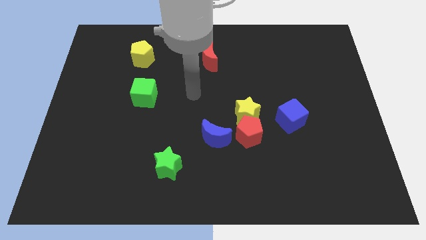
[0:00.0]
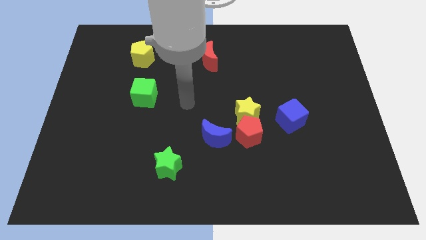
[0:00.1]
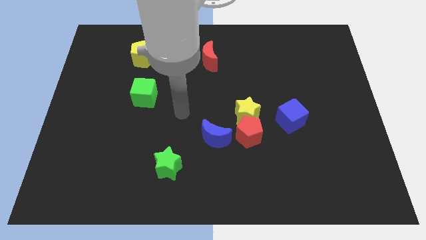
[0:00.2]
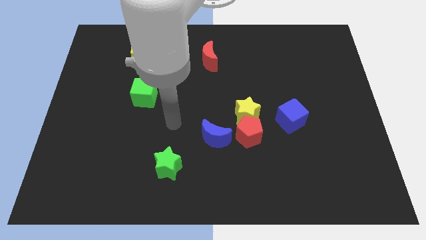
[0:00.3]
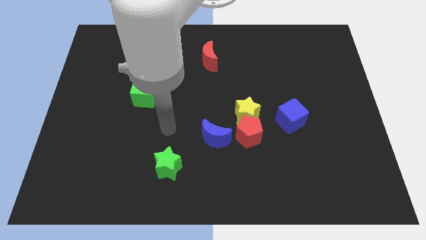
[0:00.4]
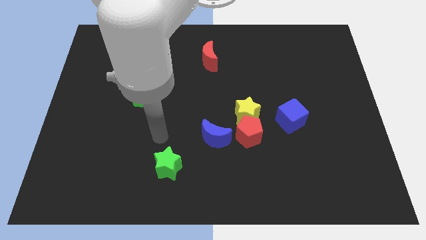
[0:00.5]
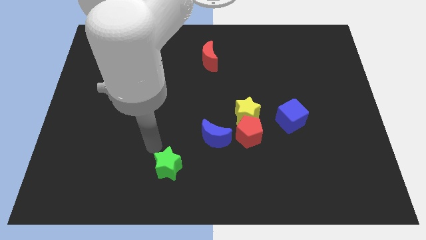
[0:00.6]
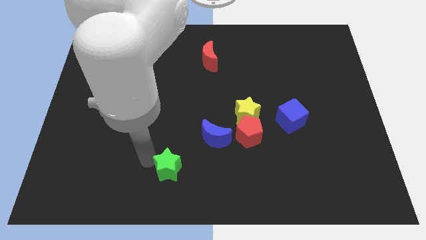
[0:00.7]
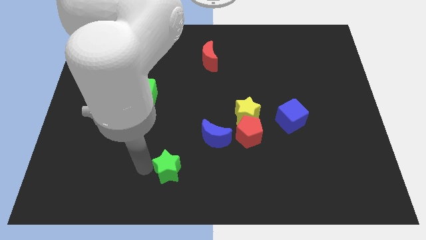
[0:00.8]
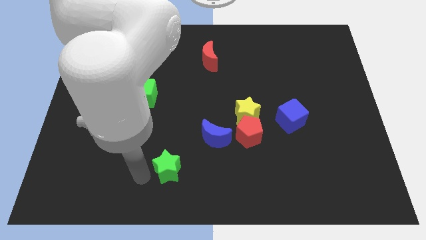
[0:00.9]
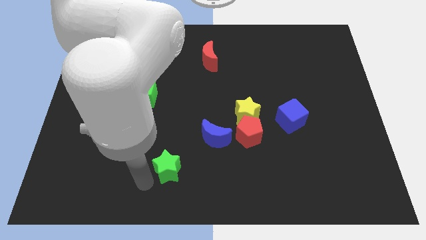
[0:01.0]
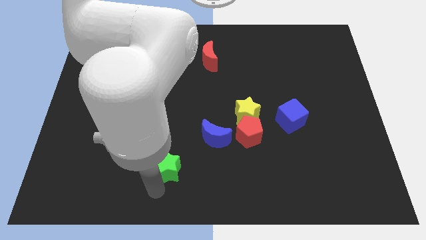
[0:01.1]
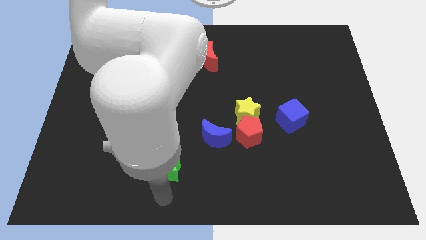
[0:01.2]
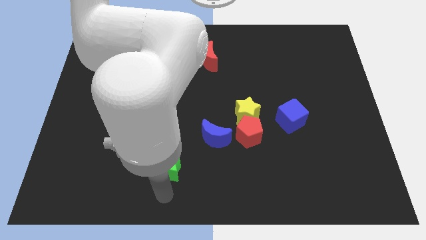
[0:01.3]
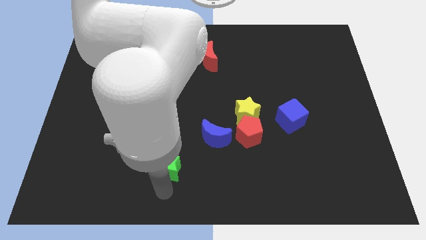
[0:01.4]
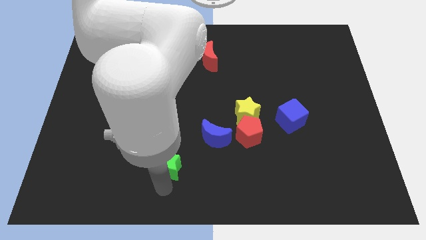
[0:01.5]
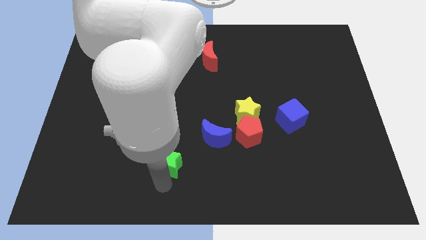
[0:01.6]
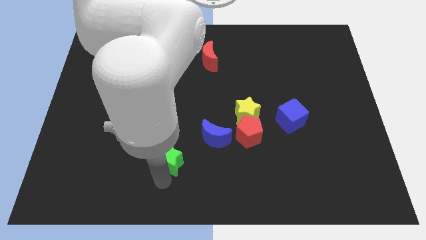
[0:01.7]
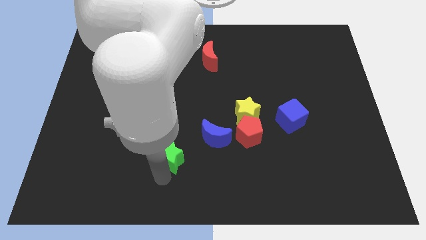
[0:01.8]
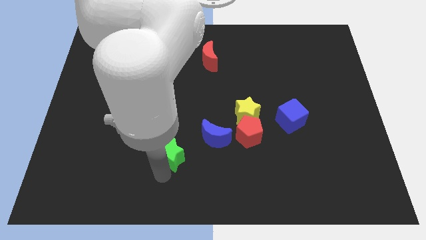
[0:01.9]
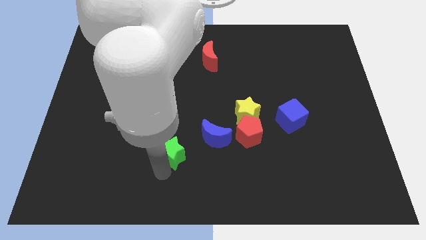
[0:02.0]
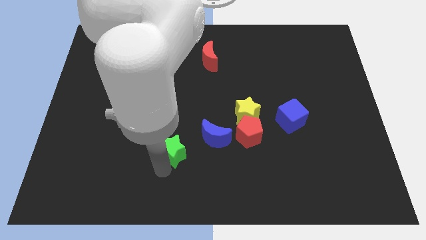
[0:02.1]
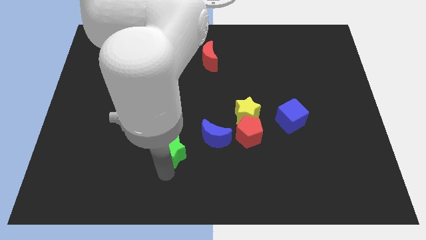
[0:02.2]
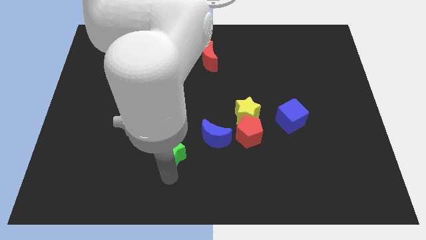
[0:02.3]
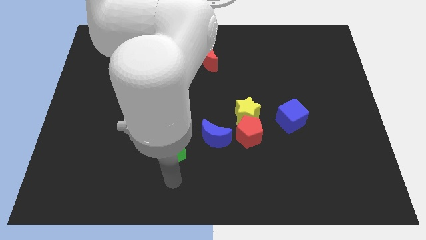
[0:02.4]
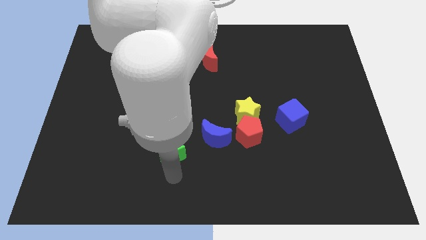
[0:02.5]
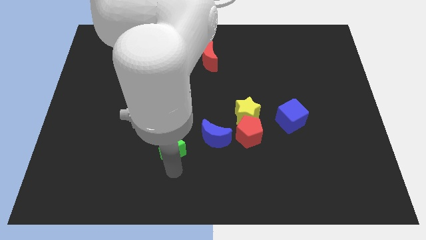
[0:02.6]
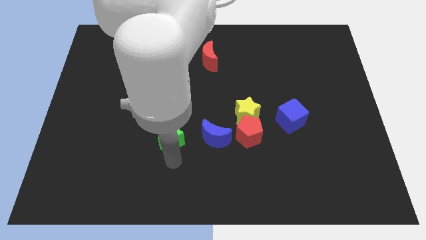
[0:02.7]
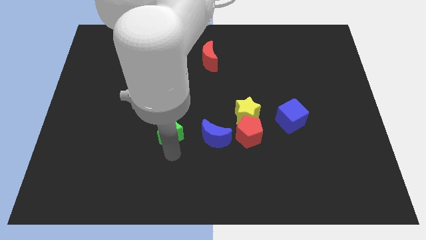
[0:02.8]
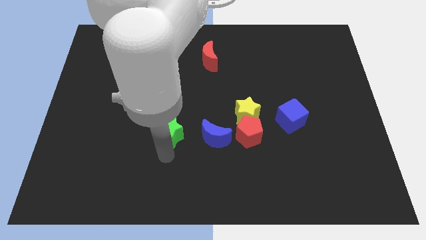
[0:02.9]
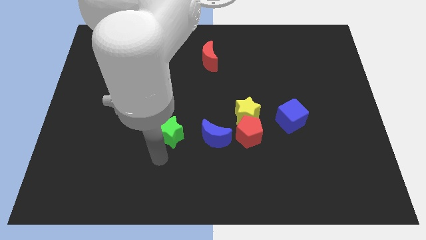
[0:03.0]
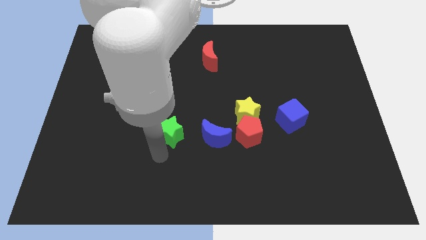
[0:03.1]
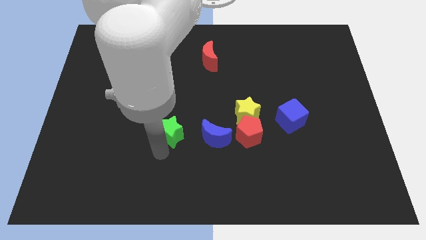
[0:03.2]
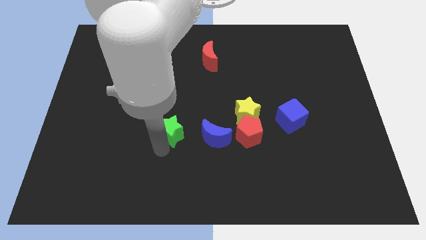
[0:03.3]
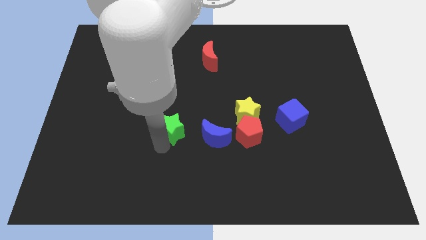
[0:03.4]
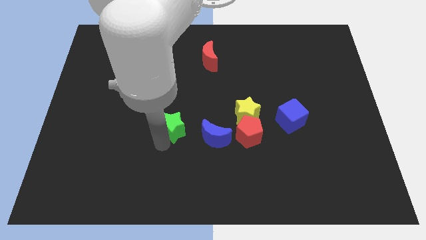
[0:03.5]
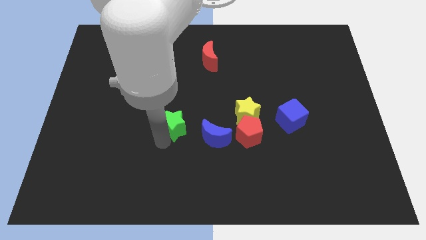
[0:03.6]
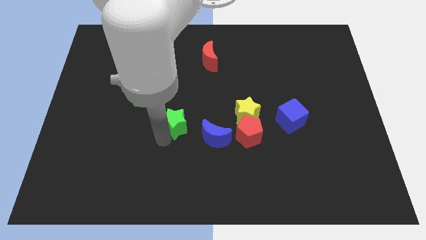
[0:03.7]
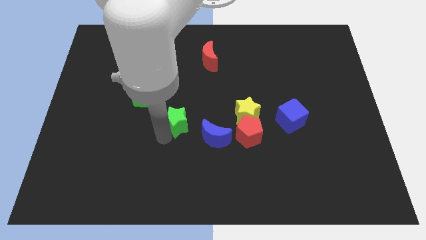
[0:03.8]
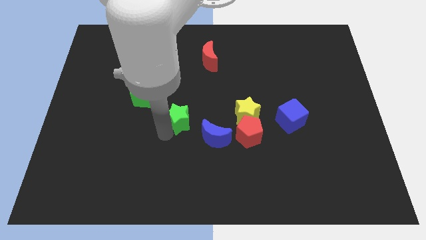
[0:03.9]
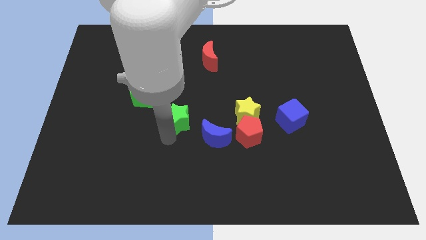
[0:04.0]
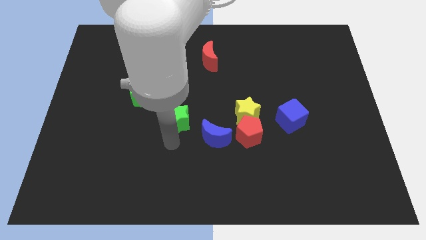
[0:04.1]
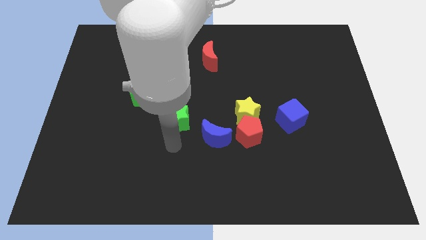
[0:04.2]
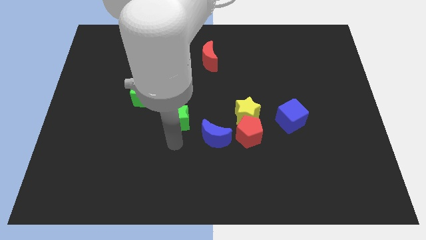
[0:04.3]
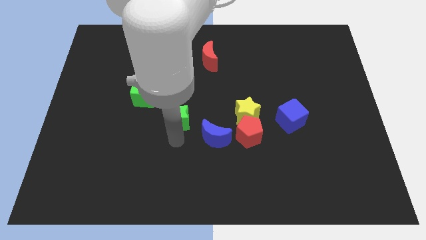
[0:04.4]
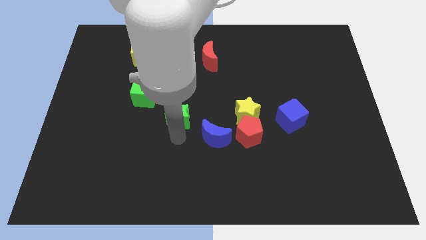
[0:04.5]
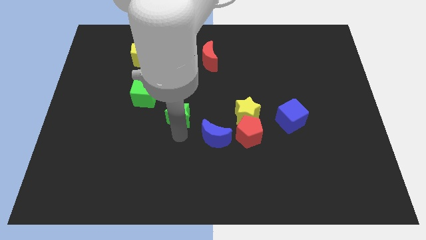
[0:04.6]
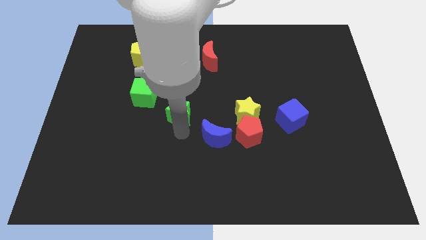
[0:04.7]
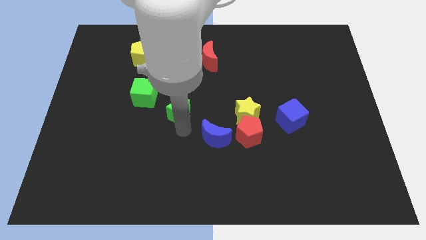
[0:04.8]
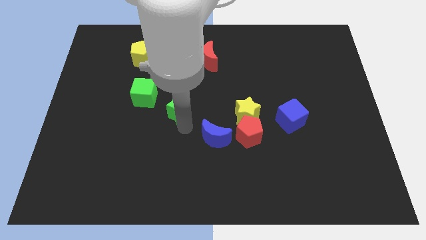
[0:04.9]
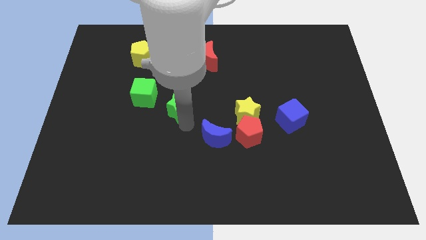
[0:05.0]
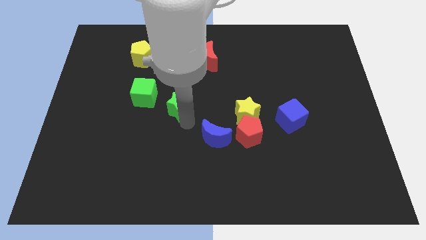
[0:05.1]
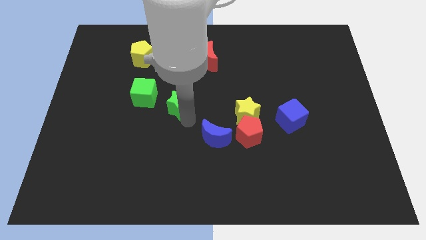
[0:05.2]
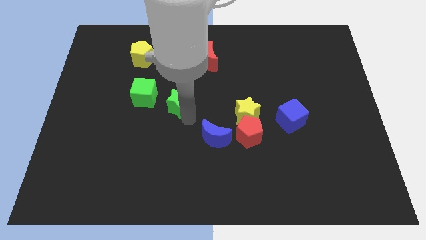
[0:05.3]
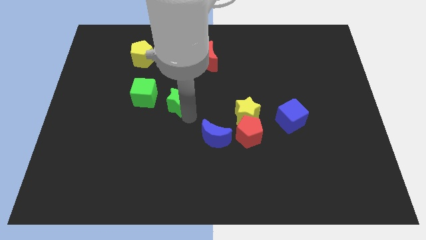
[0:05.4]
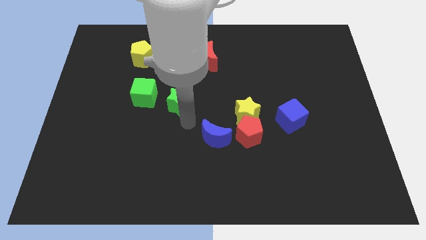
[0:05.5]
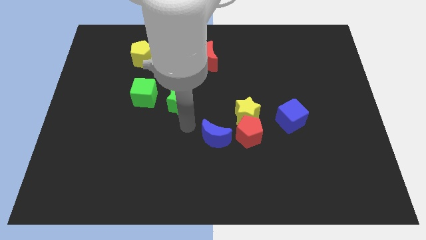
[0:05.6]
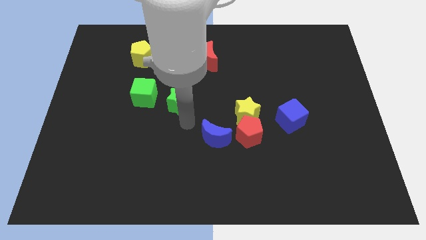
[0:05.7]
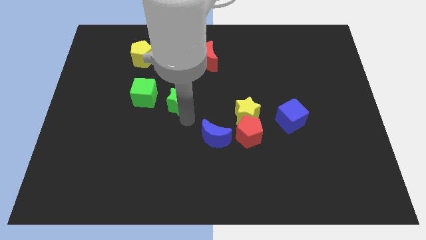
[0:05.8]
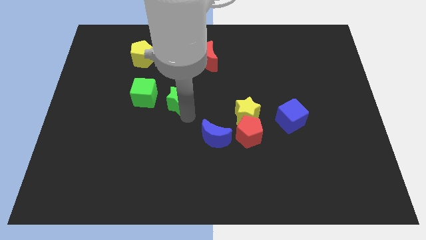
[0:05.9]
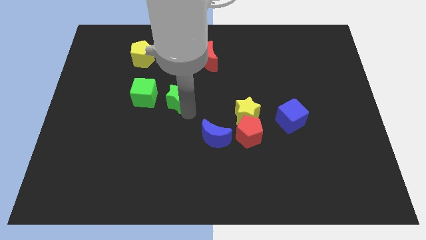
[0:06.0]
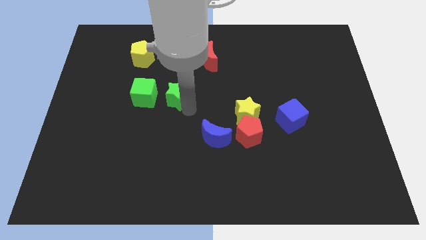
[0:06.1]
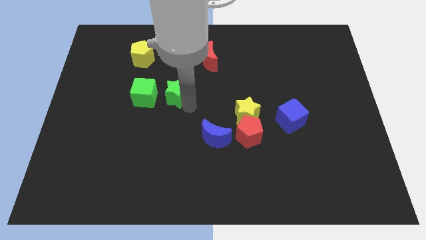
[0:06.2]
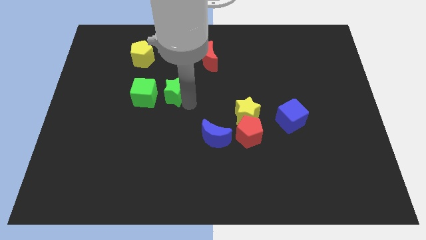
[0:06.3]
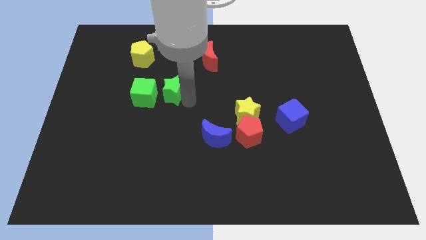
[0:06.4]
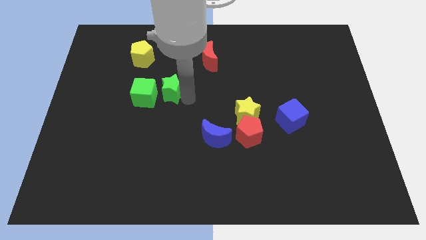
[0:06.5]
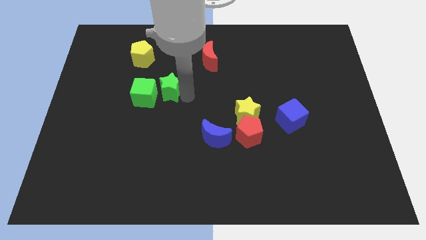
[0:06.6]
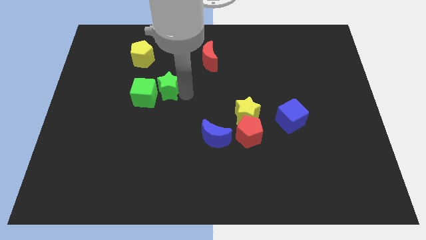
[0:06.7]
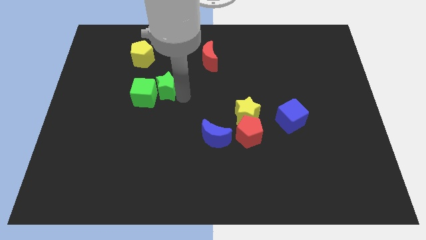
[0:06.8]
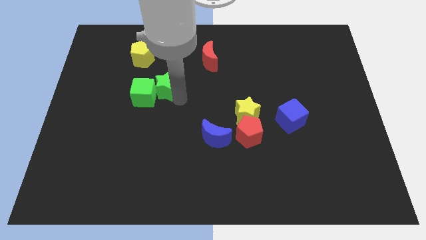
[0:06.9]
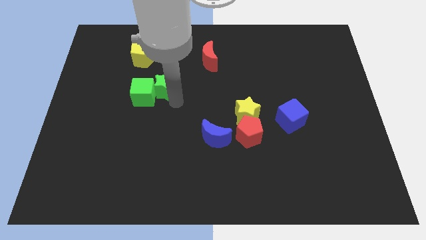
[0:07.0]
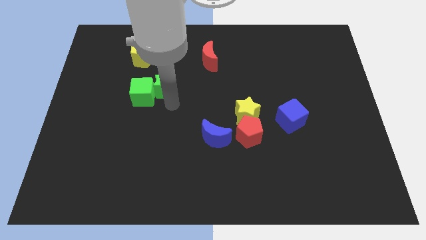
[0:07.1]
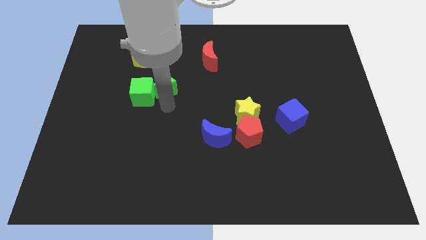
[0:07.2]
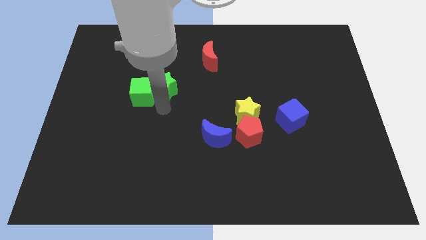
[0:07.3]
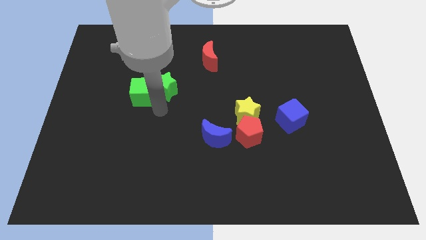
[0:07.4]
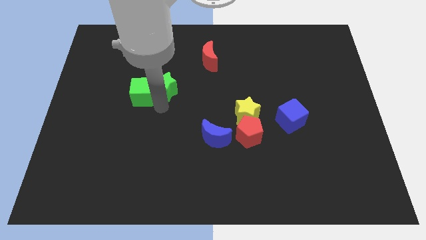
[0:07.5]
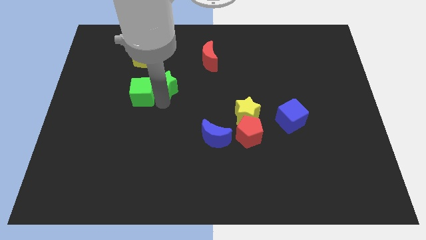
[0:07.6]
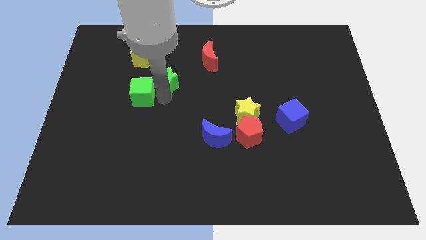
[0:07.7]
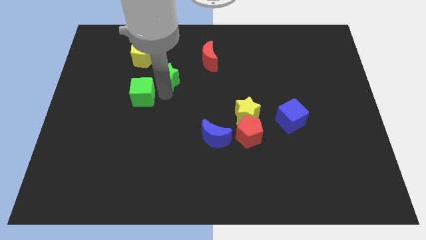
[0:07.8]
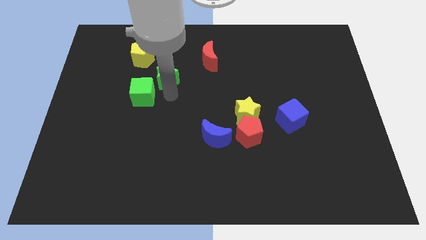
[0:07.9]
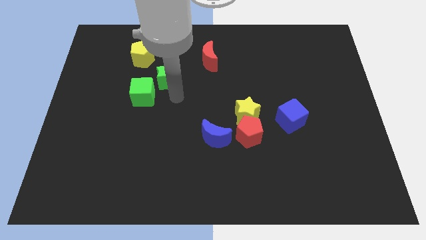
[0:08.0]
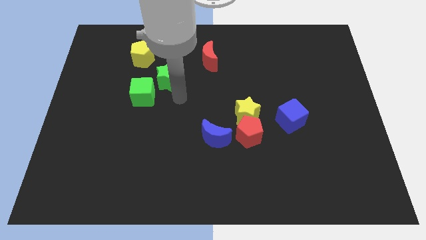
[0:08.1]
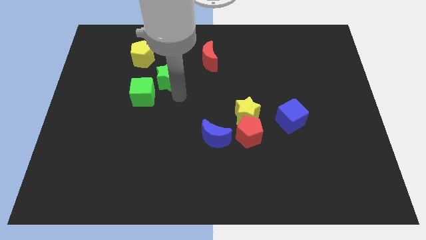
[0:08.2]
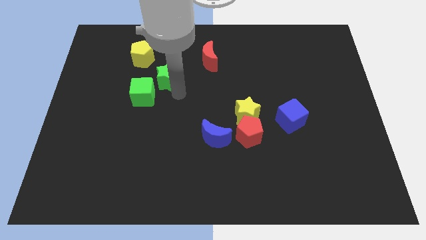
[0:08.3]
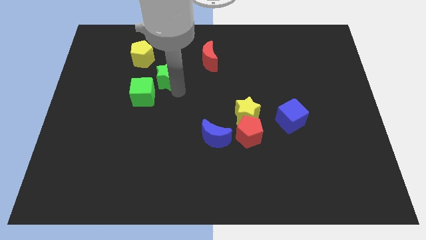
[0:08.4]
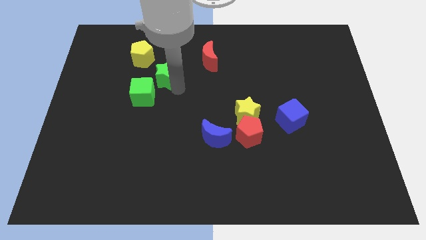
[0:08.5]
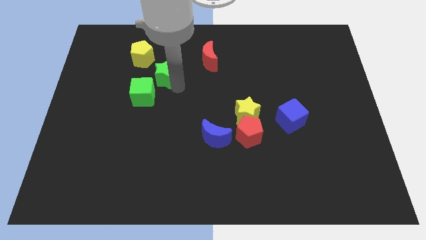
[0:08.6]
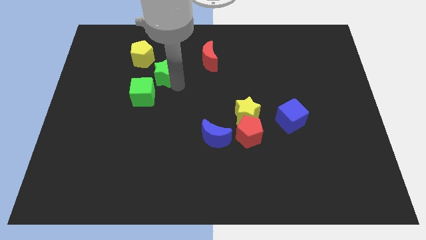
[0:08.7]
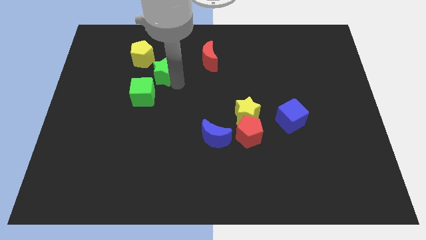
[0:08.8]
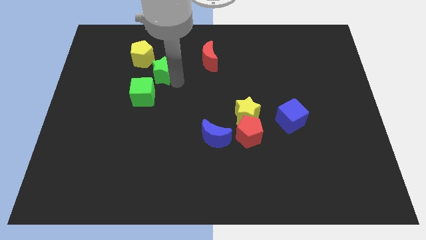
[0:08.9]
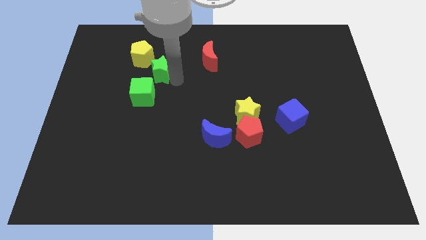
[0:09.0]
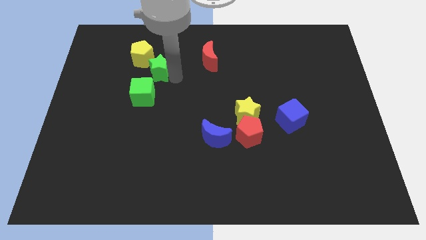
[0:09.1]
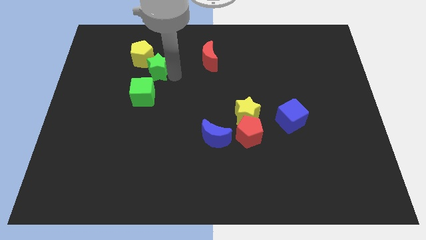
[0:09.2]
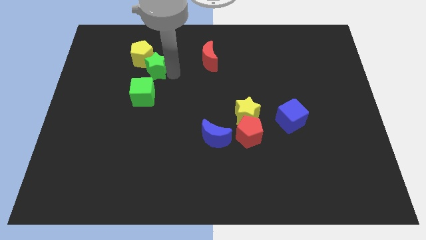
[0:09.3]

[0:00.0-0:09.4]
push the green star next to the yellow pentagon
